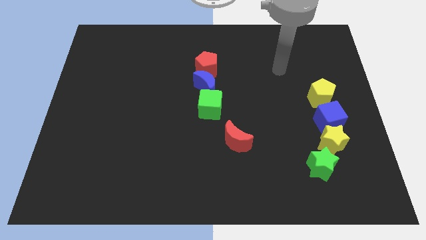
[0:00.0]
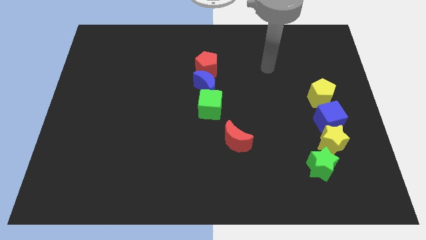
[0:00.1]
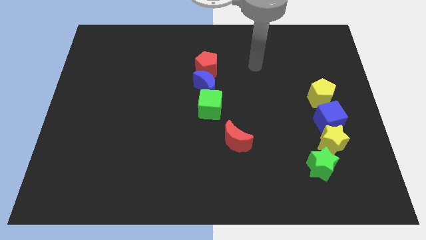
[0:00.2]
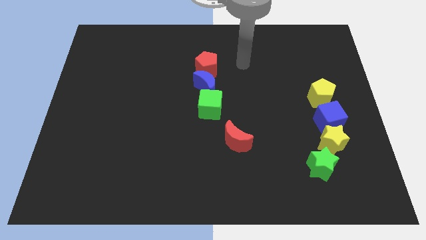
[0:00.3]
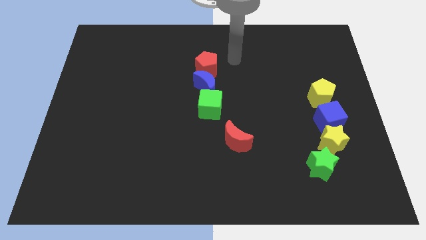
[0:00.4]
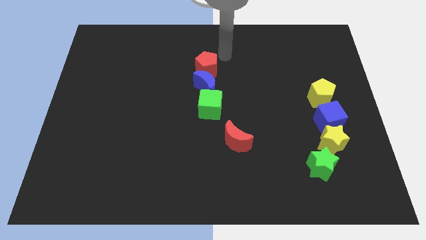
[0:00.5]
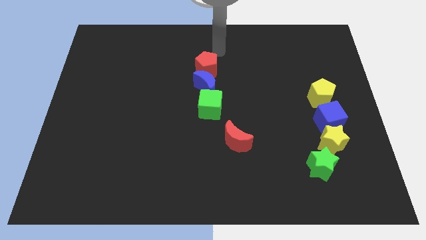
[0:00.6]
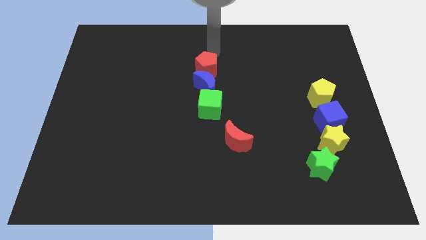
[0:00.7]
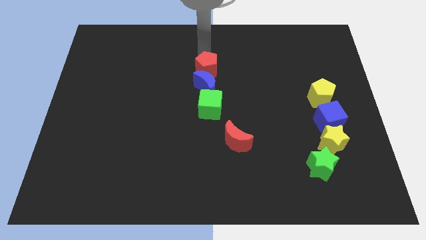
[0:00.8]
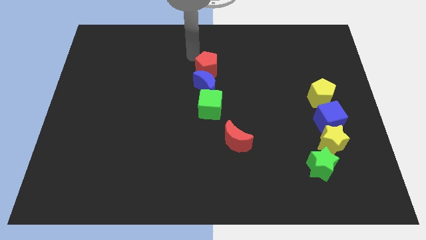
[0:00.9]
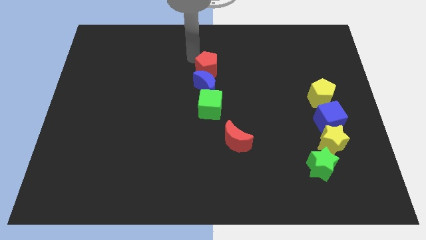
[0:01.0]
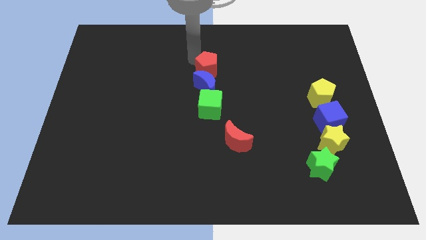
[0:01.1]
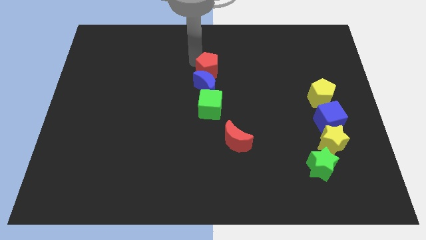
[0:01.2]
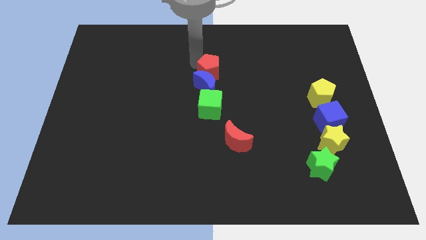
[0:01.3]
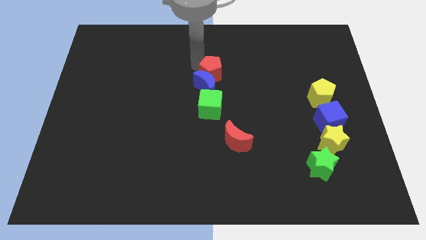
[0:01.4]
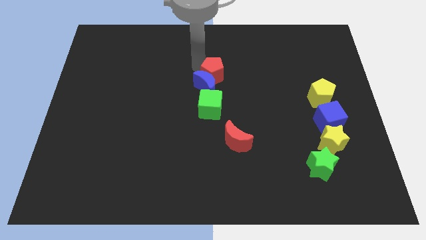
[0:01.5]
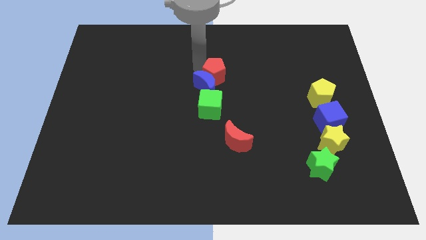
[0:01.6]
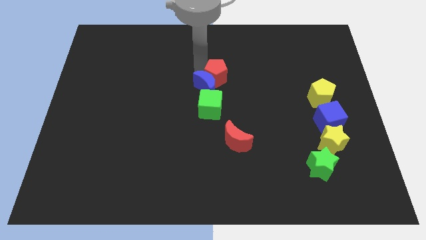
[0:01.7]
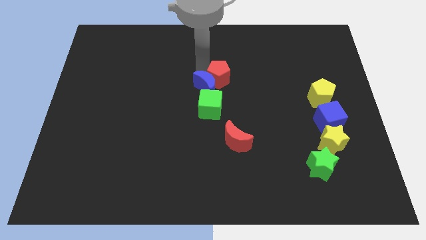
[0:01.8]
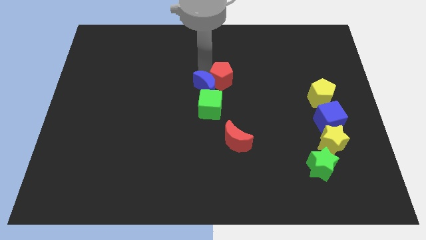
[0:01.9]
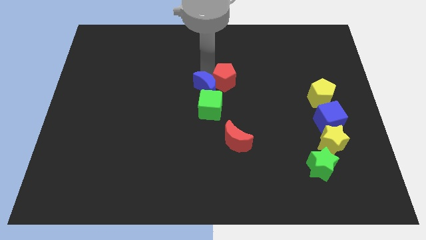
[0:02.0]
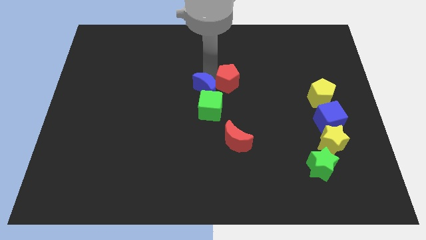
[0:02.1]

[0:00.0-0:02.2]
push the red pentagon slightly down and right

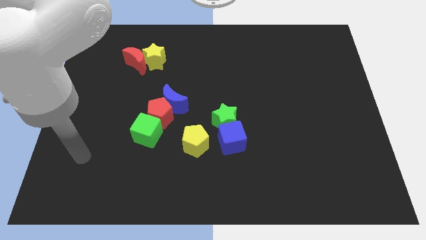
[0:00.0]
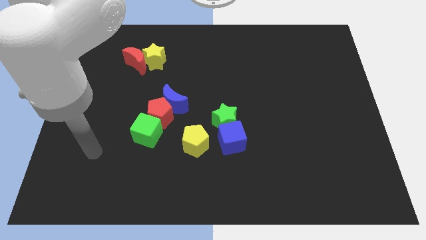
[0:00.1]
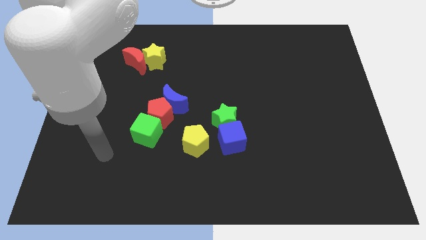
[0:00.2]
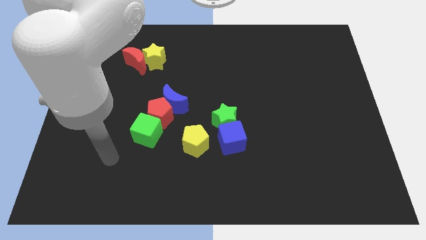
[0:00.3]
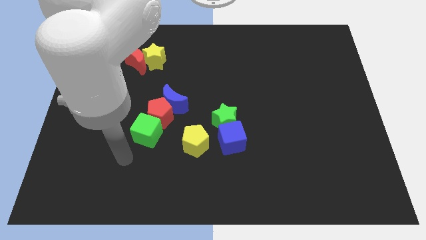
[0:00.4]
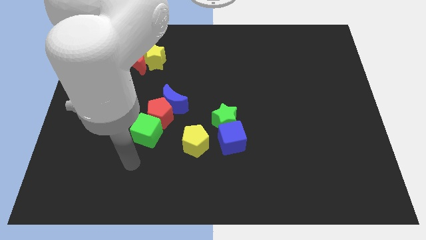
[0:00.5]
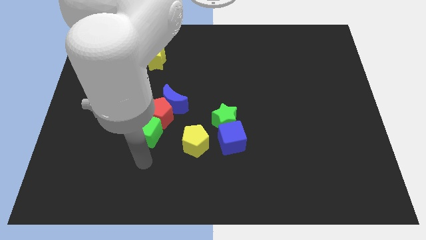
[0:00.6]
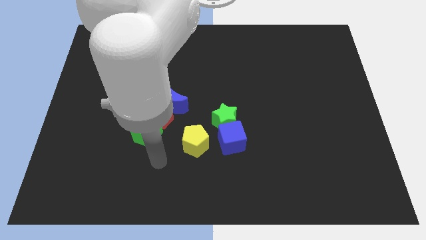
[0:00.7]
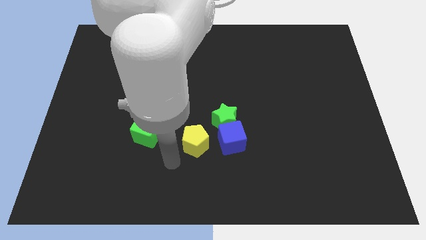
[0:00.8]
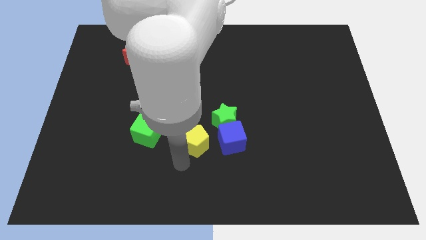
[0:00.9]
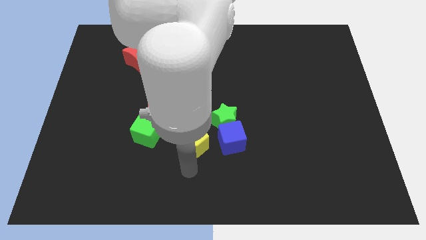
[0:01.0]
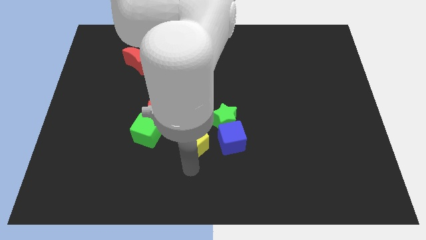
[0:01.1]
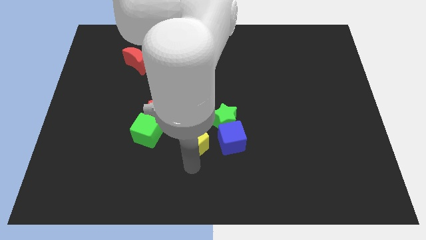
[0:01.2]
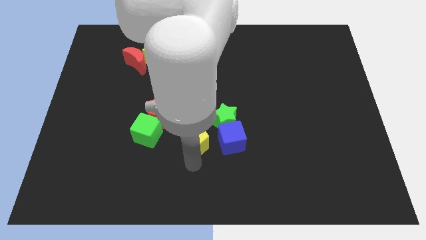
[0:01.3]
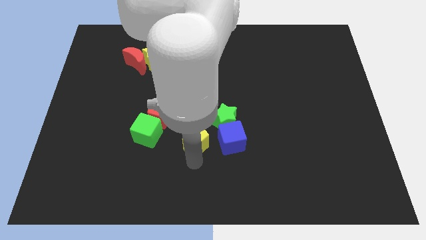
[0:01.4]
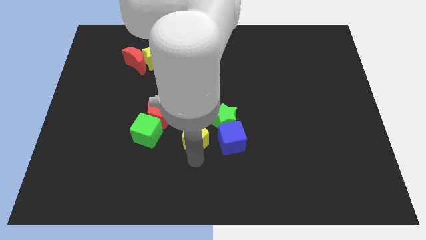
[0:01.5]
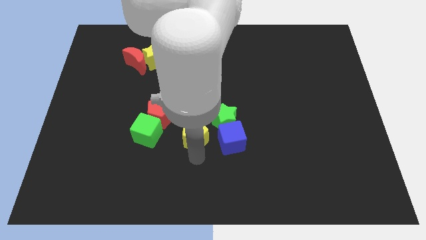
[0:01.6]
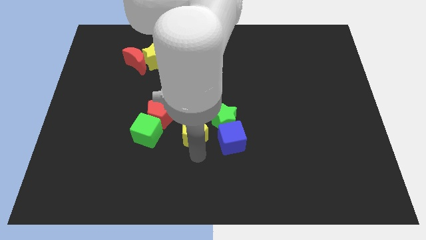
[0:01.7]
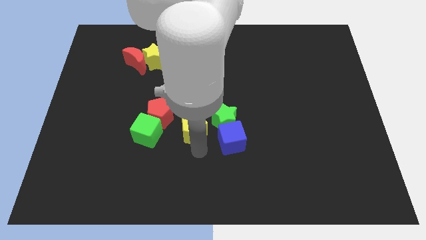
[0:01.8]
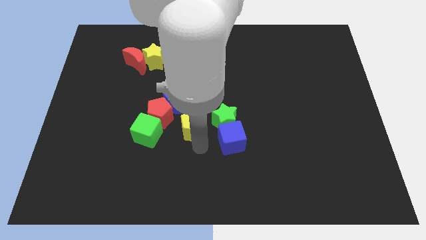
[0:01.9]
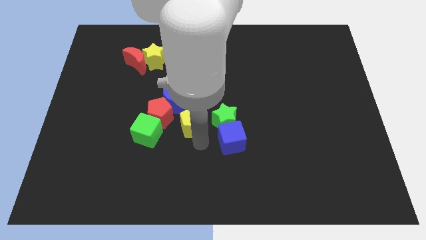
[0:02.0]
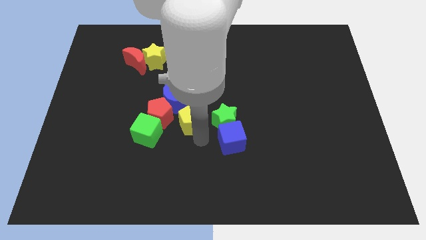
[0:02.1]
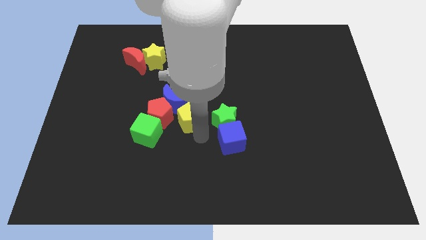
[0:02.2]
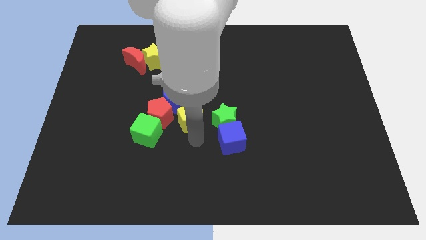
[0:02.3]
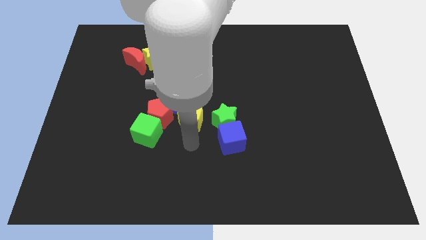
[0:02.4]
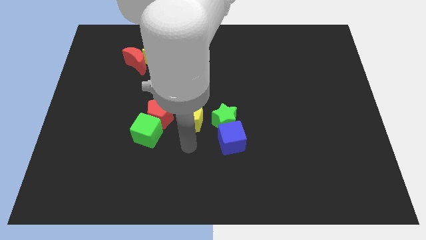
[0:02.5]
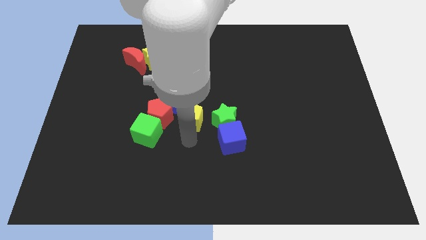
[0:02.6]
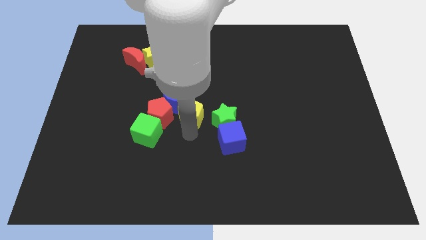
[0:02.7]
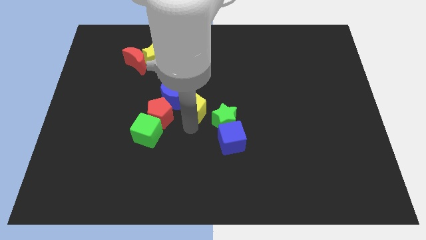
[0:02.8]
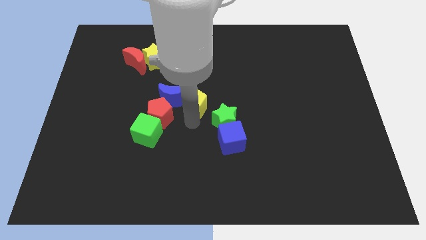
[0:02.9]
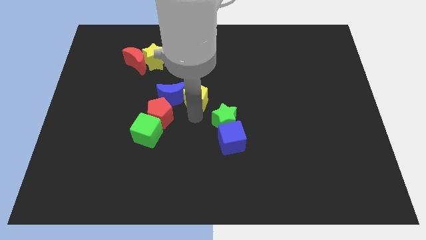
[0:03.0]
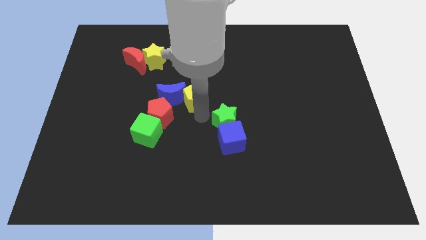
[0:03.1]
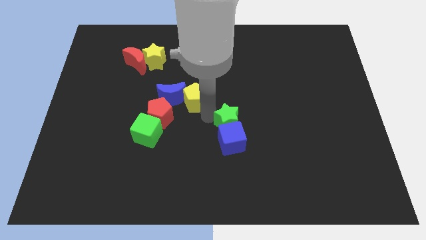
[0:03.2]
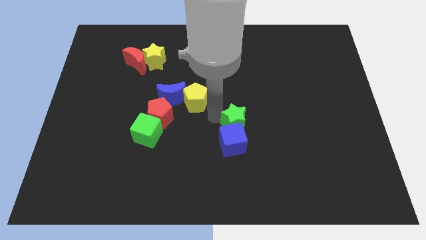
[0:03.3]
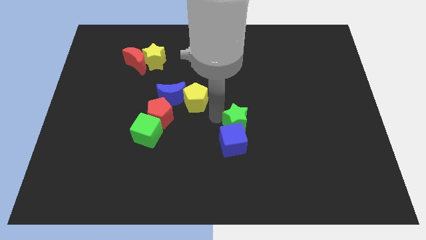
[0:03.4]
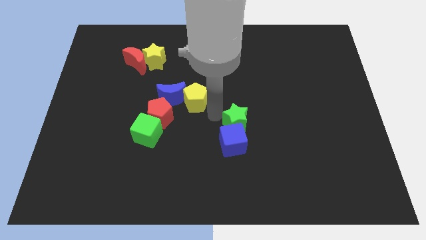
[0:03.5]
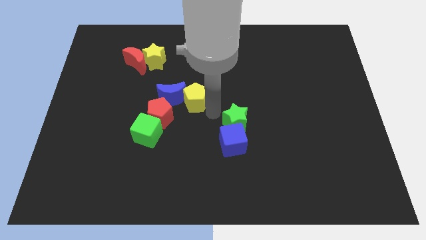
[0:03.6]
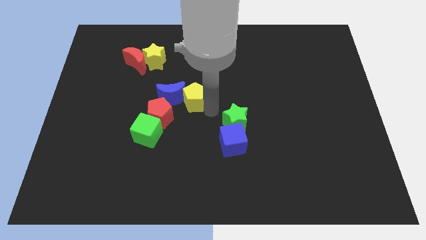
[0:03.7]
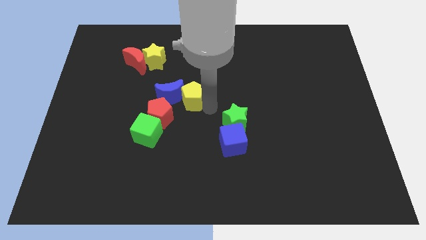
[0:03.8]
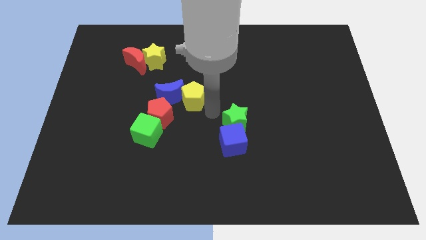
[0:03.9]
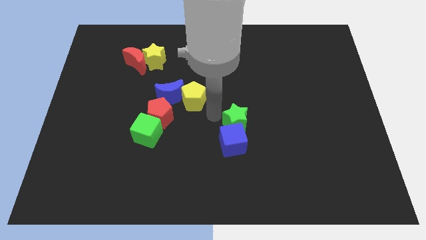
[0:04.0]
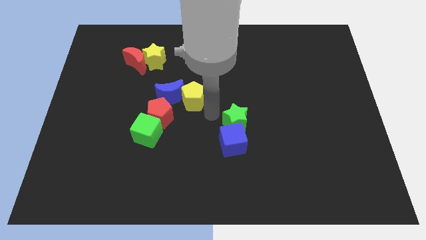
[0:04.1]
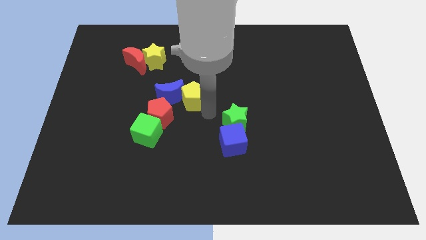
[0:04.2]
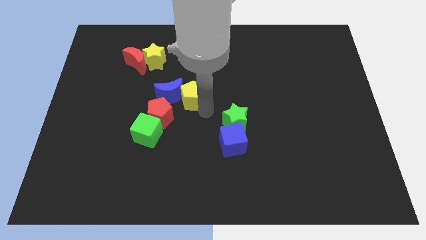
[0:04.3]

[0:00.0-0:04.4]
slide the yellow pentagon a little up and then to the left

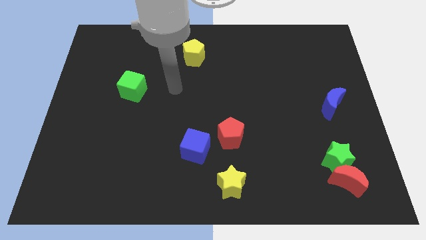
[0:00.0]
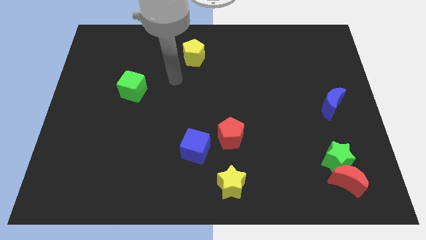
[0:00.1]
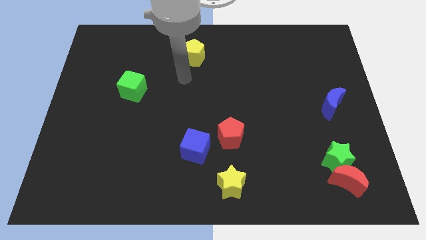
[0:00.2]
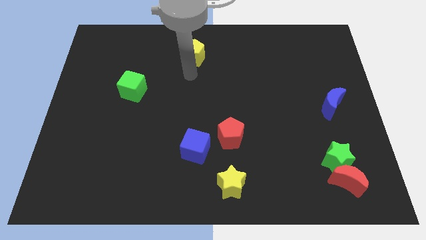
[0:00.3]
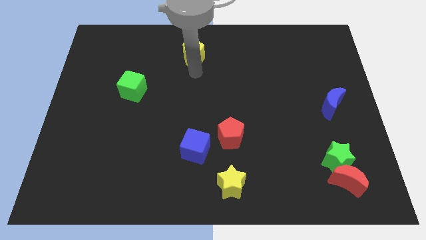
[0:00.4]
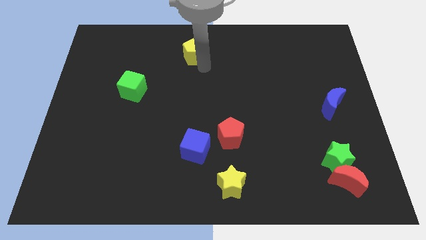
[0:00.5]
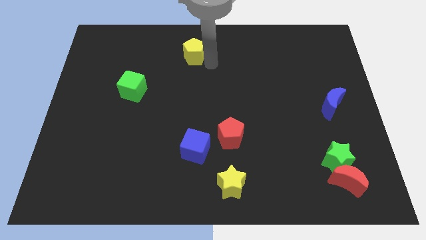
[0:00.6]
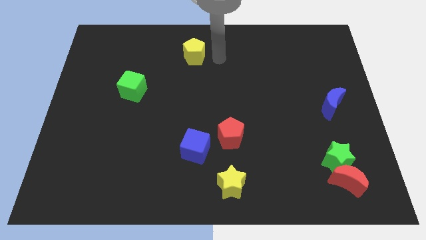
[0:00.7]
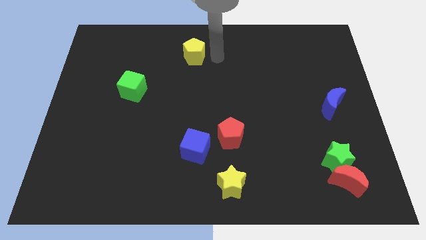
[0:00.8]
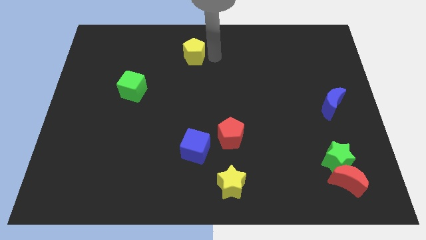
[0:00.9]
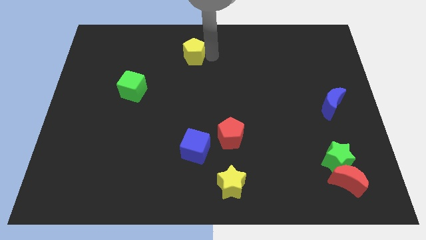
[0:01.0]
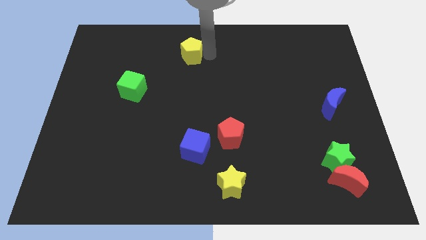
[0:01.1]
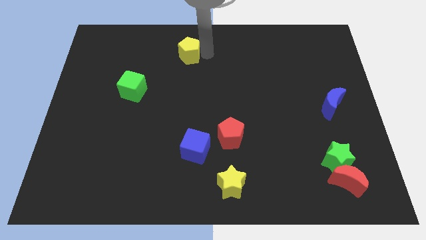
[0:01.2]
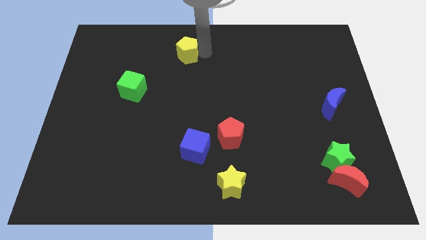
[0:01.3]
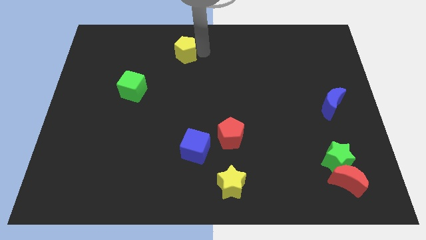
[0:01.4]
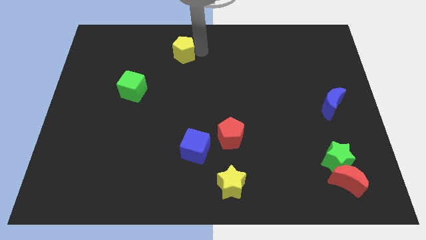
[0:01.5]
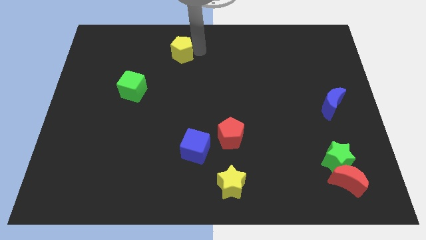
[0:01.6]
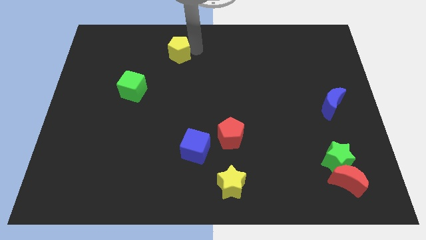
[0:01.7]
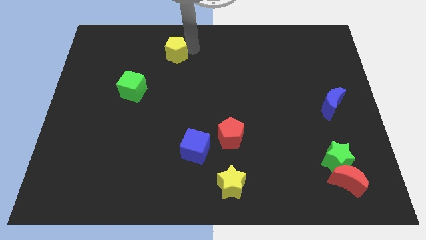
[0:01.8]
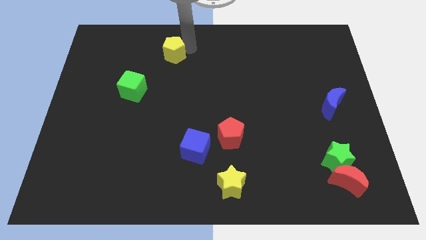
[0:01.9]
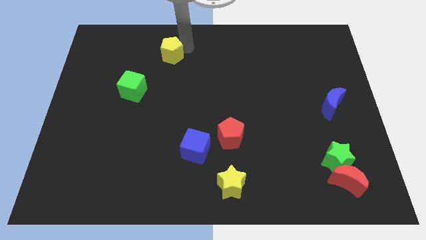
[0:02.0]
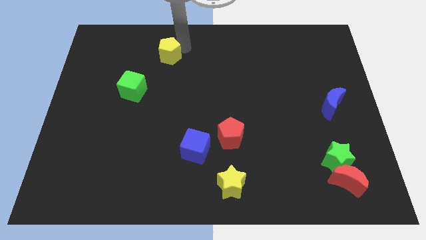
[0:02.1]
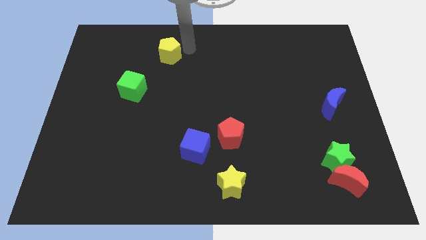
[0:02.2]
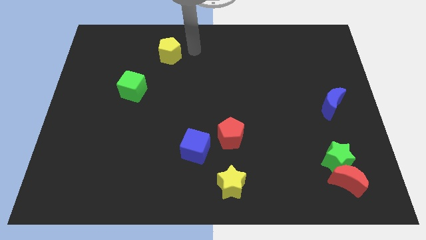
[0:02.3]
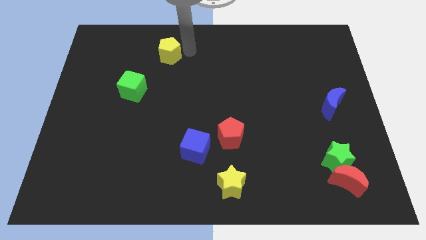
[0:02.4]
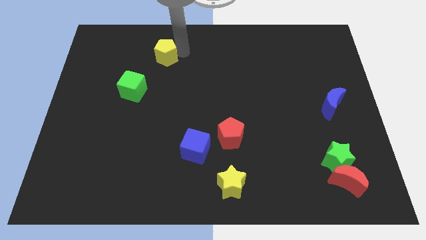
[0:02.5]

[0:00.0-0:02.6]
slide the yellow pentagon a little bit to the left
